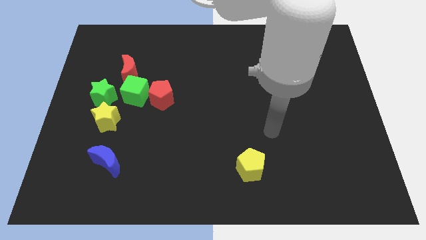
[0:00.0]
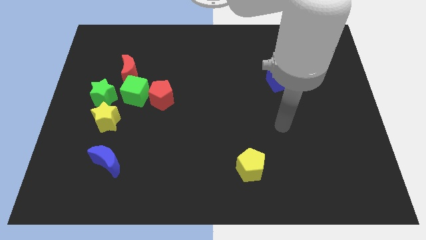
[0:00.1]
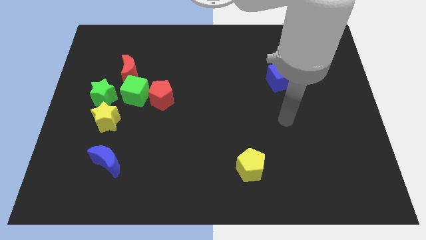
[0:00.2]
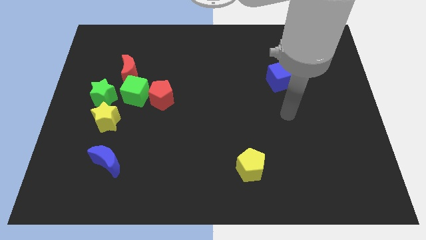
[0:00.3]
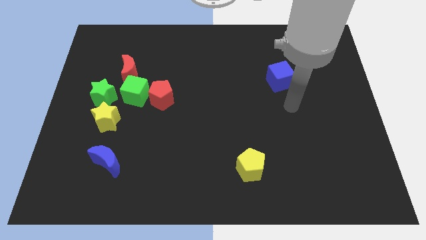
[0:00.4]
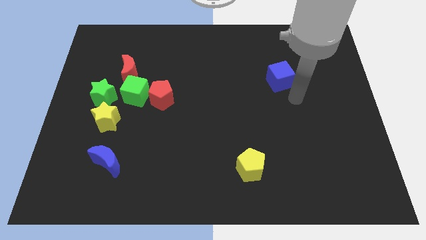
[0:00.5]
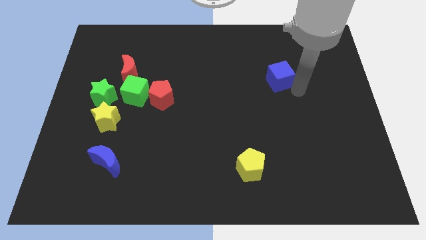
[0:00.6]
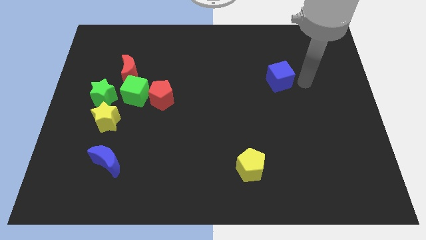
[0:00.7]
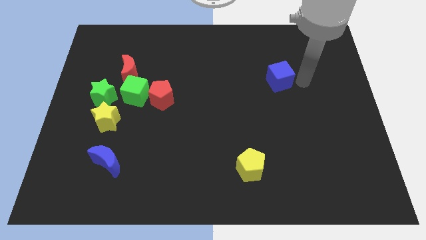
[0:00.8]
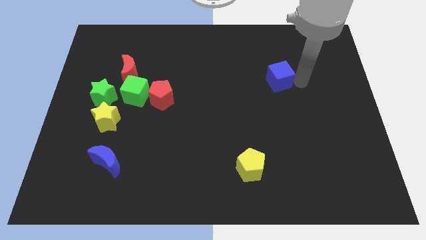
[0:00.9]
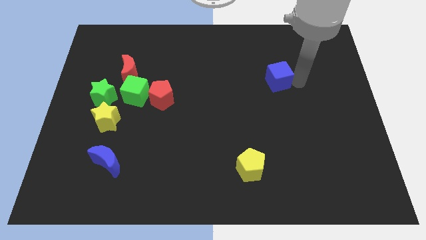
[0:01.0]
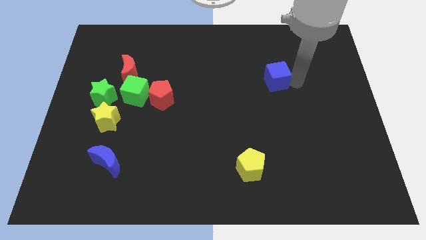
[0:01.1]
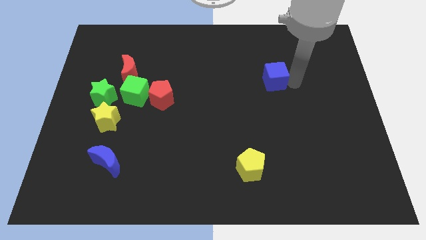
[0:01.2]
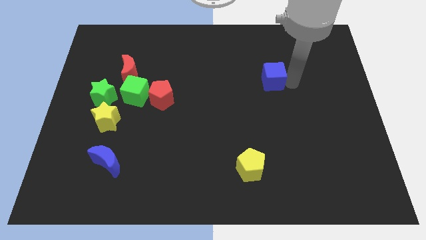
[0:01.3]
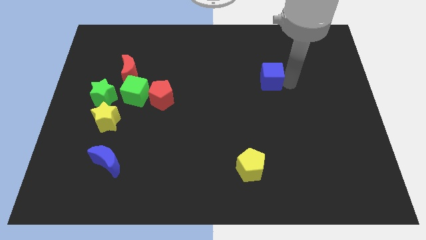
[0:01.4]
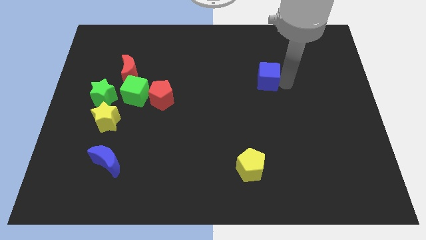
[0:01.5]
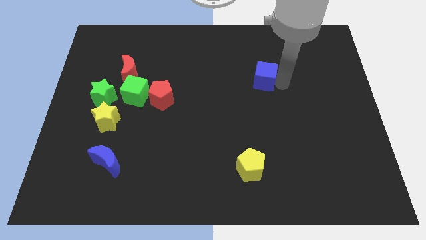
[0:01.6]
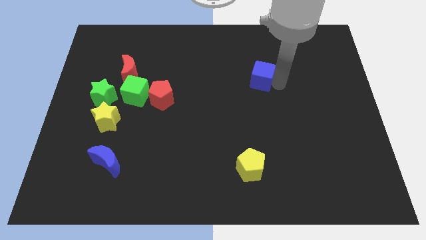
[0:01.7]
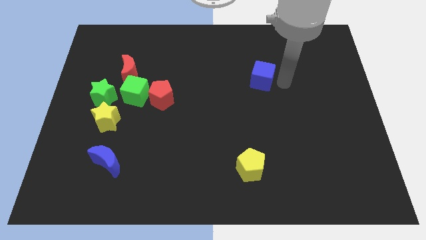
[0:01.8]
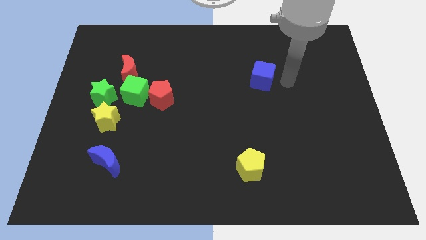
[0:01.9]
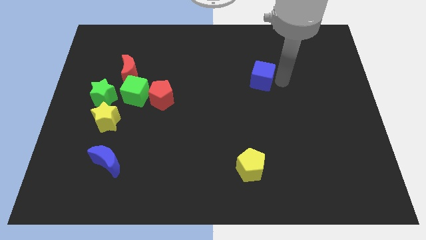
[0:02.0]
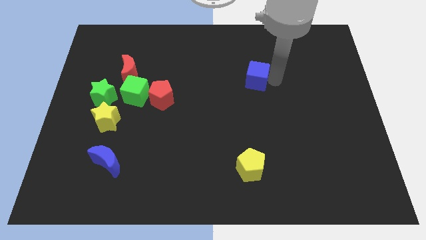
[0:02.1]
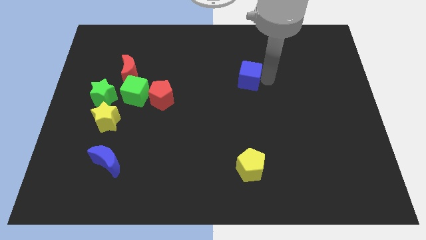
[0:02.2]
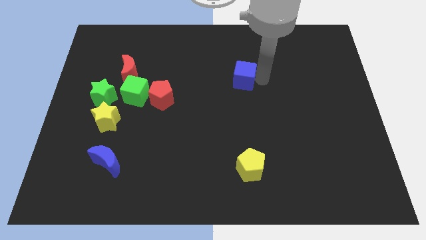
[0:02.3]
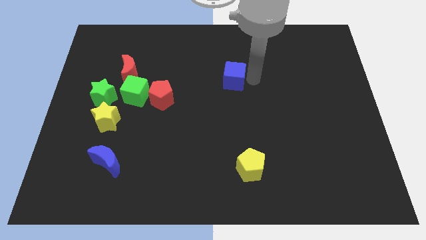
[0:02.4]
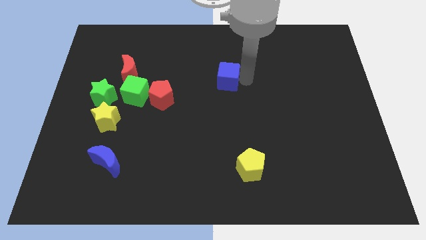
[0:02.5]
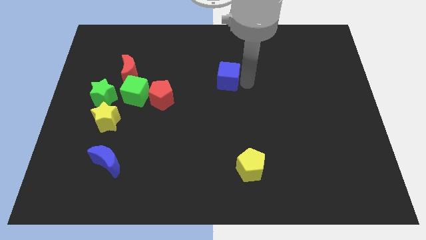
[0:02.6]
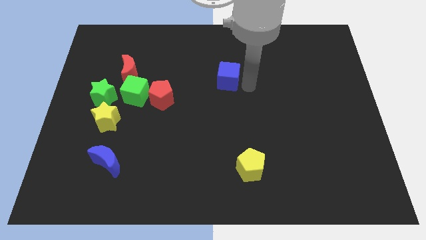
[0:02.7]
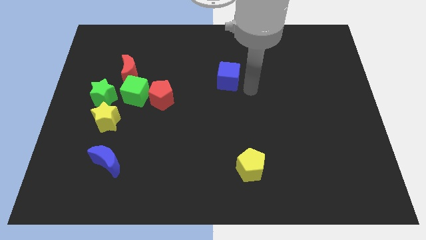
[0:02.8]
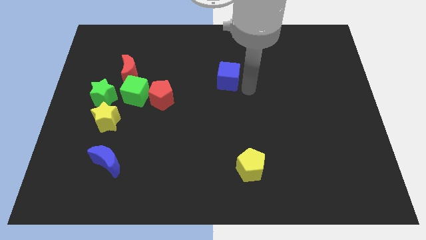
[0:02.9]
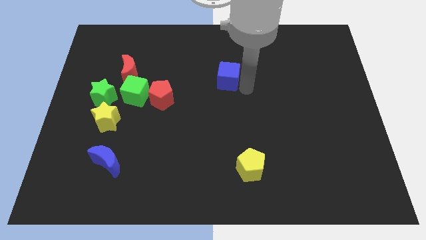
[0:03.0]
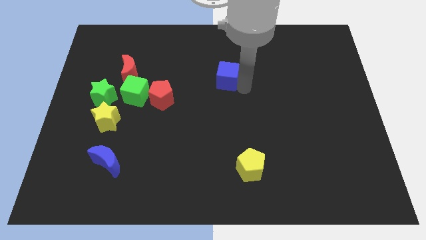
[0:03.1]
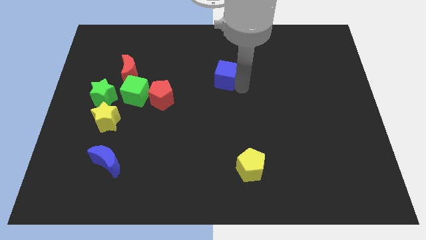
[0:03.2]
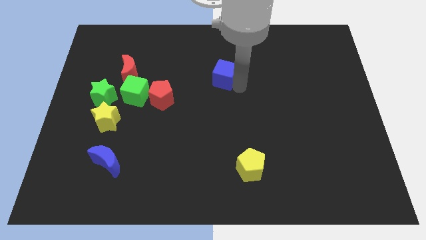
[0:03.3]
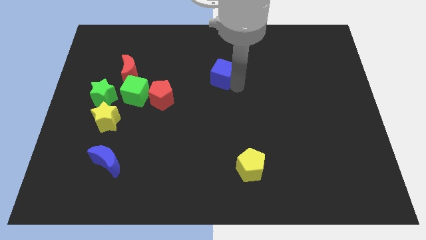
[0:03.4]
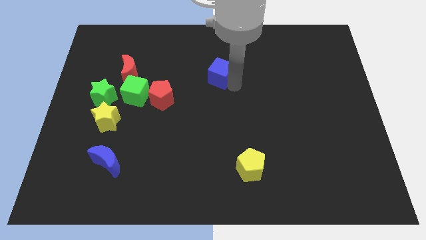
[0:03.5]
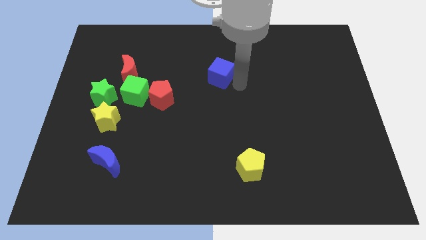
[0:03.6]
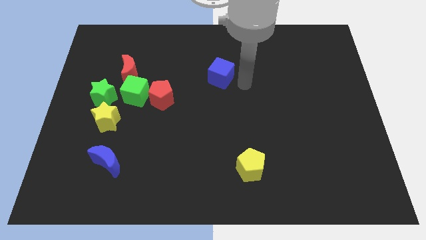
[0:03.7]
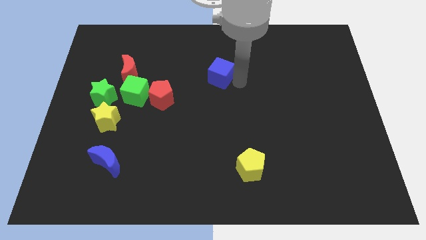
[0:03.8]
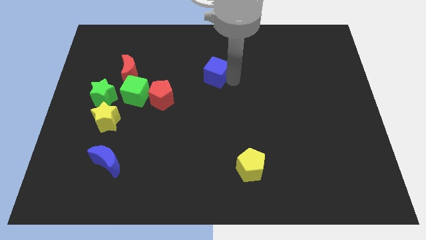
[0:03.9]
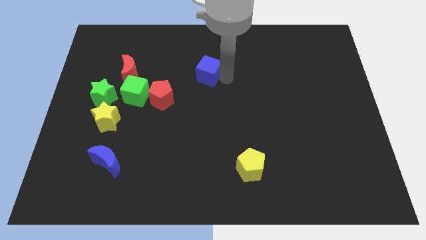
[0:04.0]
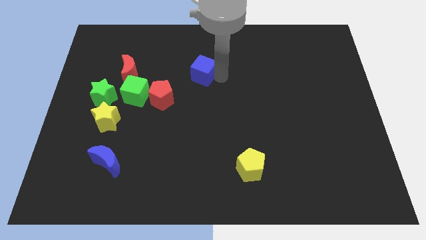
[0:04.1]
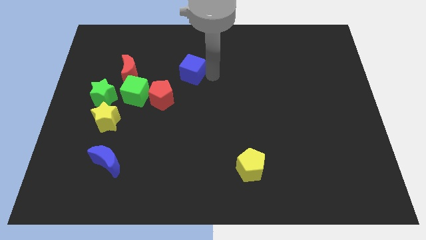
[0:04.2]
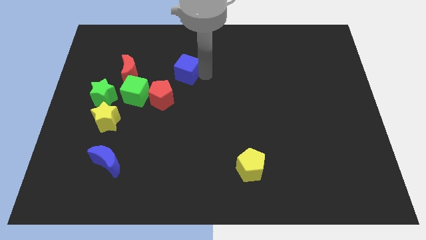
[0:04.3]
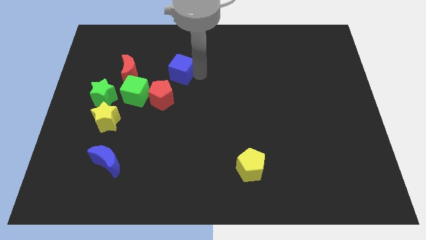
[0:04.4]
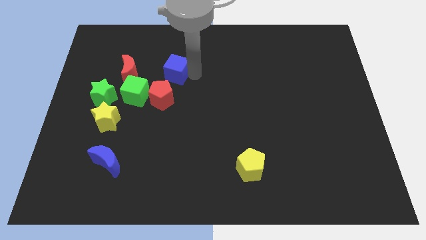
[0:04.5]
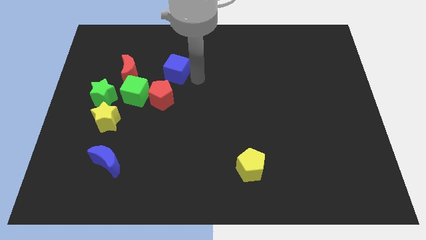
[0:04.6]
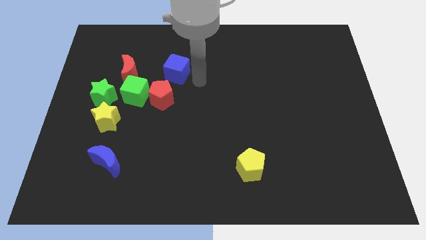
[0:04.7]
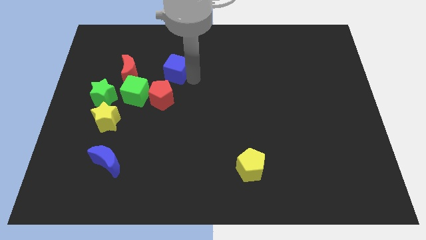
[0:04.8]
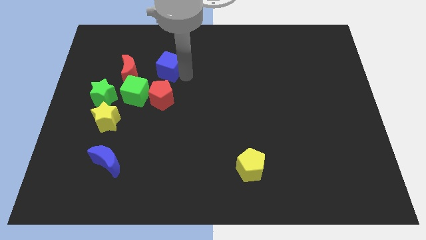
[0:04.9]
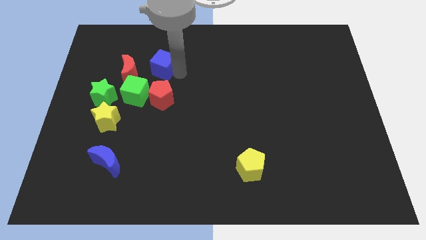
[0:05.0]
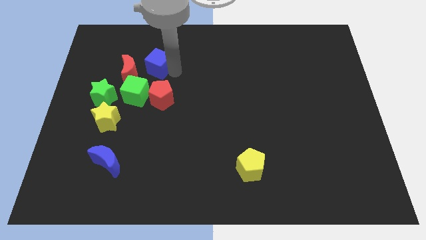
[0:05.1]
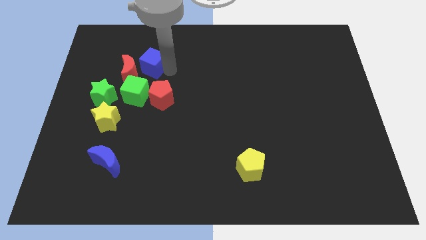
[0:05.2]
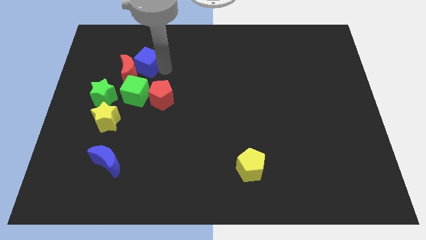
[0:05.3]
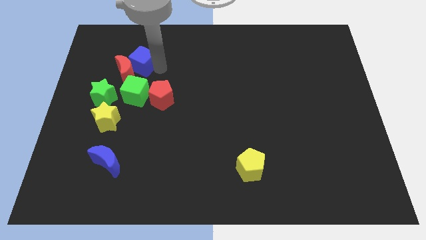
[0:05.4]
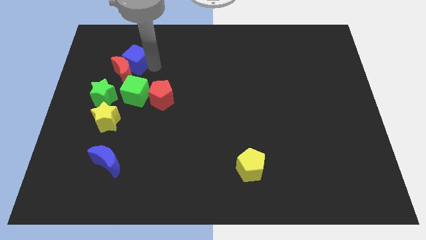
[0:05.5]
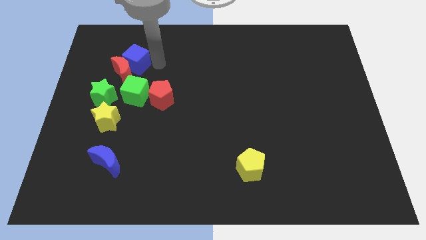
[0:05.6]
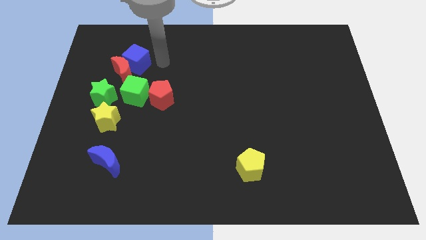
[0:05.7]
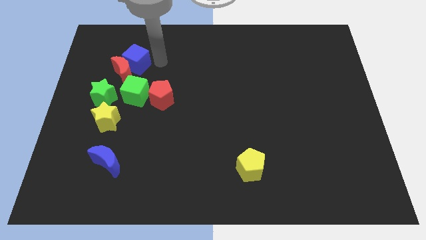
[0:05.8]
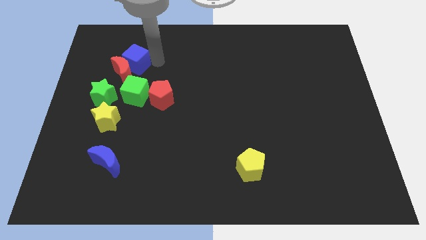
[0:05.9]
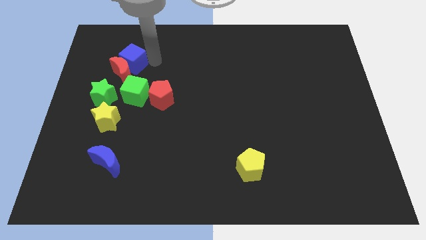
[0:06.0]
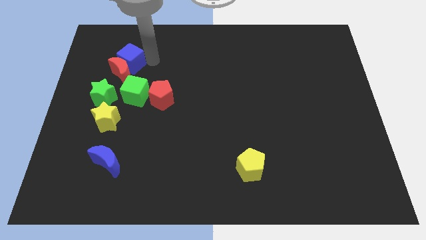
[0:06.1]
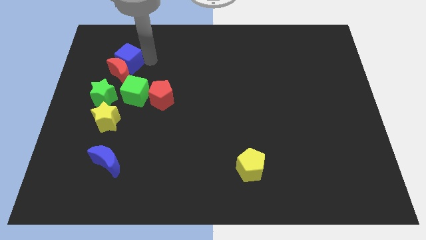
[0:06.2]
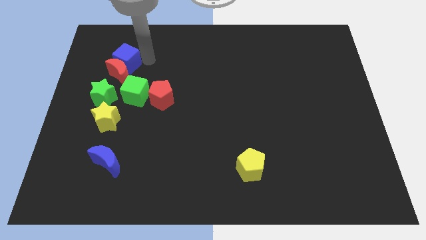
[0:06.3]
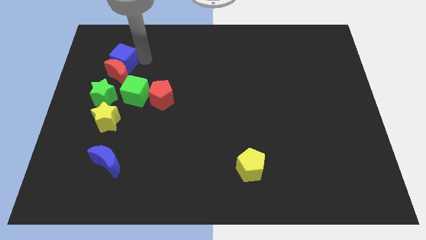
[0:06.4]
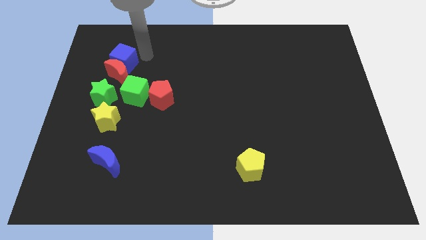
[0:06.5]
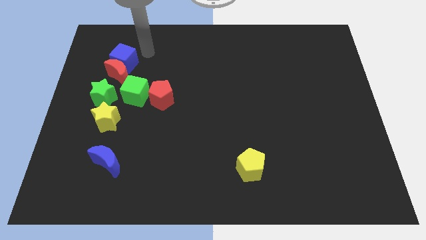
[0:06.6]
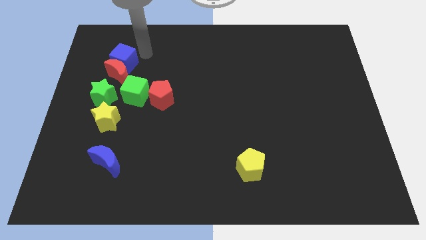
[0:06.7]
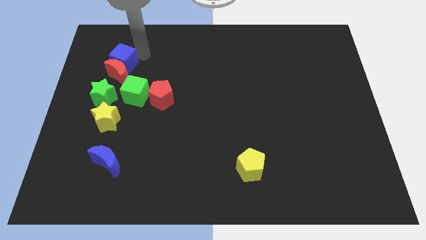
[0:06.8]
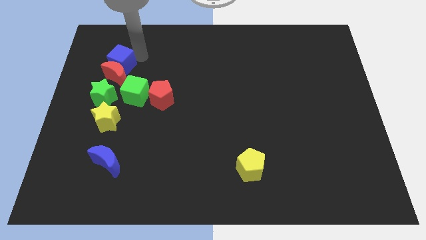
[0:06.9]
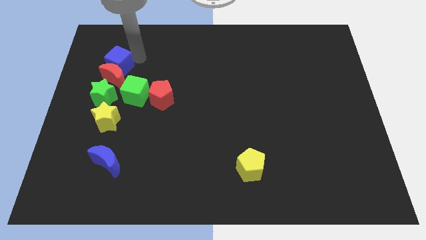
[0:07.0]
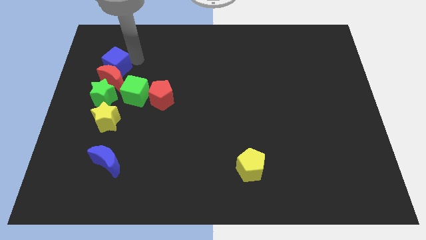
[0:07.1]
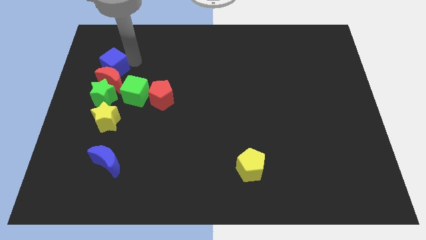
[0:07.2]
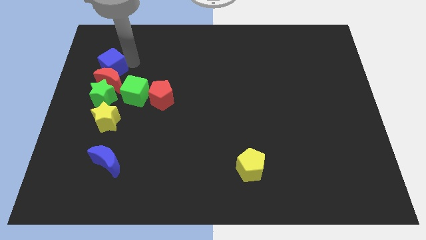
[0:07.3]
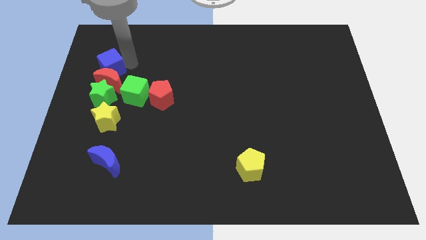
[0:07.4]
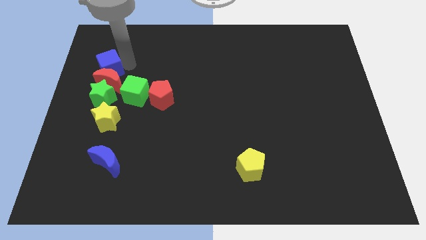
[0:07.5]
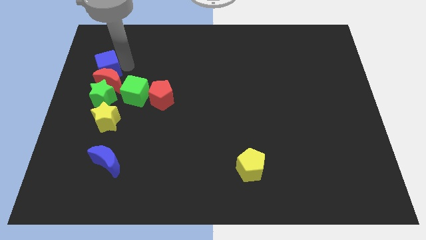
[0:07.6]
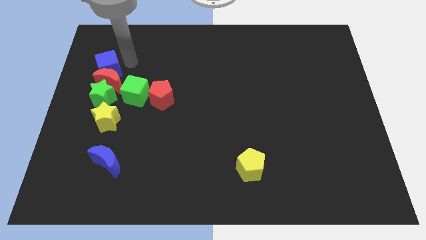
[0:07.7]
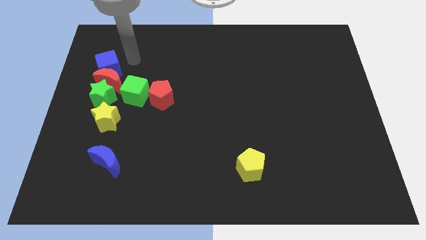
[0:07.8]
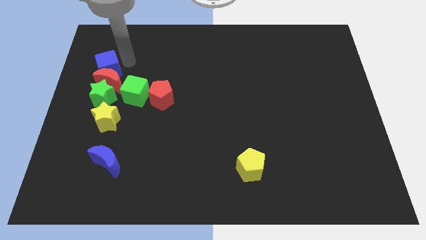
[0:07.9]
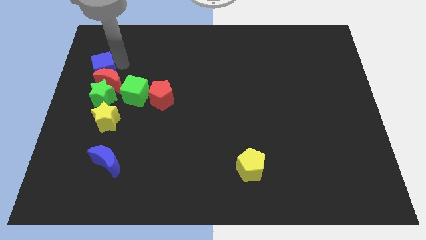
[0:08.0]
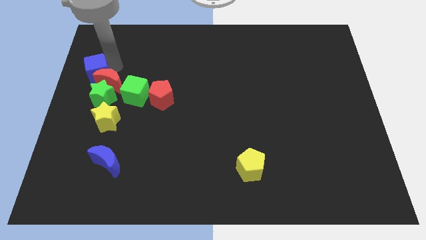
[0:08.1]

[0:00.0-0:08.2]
slide the blue cube to the left side of the board

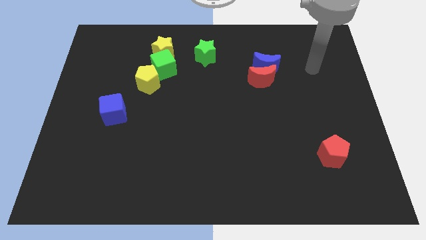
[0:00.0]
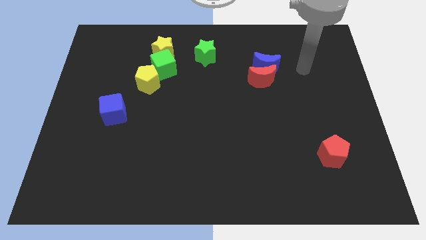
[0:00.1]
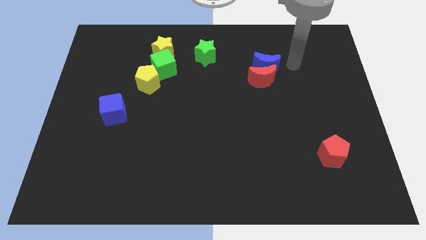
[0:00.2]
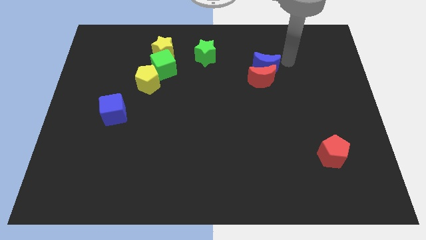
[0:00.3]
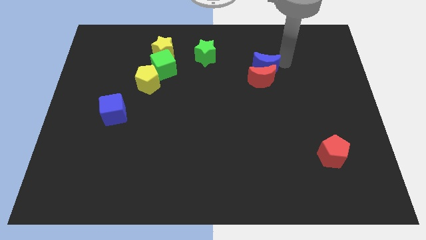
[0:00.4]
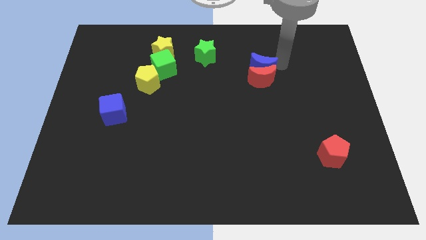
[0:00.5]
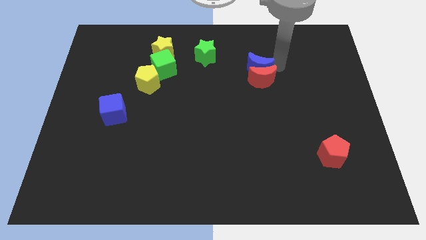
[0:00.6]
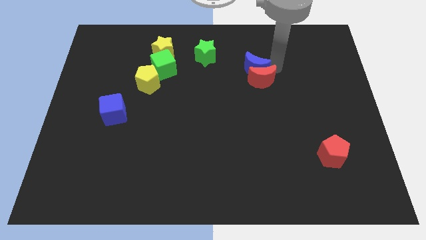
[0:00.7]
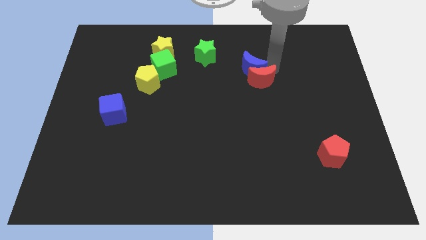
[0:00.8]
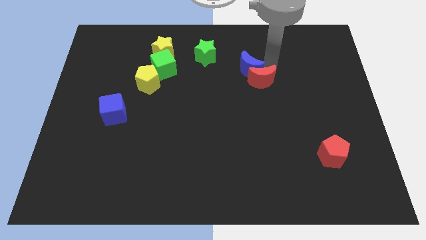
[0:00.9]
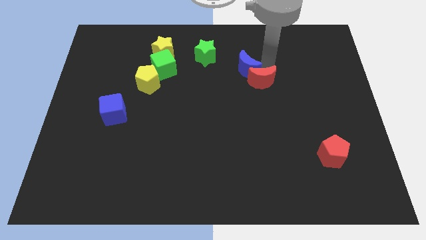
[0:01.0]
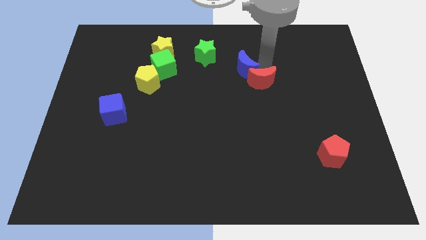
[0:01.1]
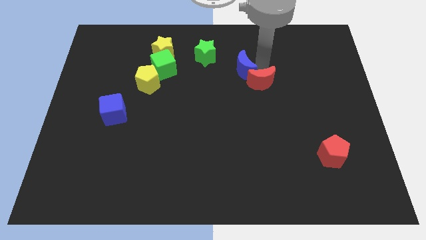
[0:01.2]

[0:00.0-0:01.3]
slide the blue moon to the center
